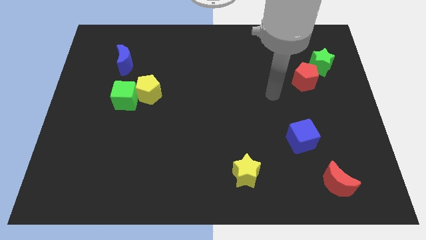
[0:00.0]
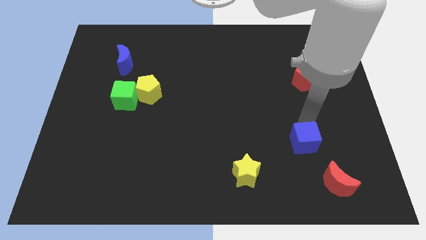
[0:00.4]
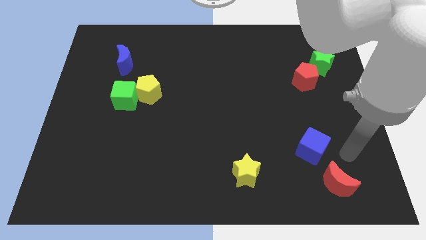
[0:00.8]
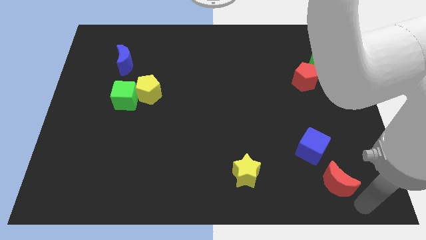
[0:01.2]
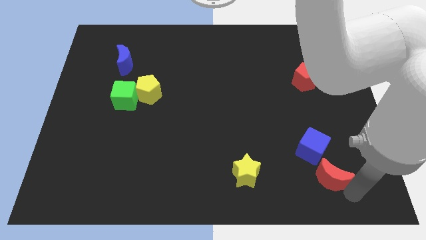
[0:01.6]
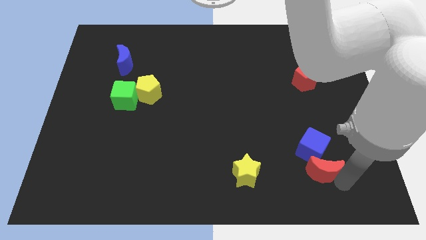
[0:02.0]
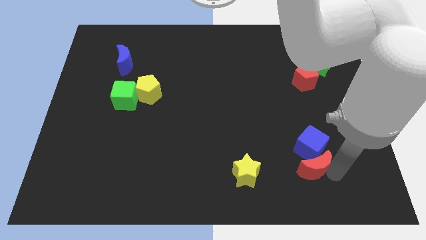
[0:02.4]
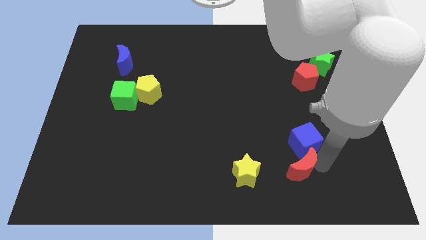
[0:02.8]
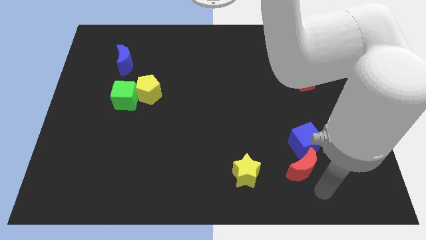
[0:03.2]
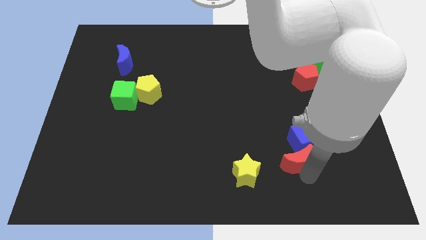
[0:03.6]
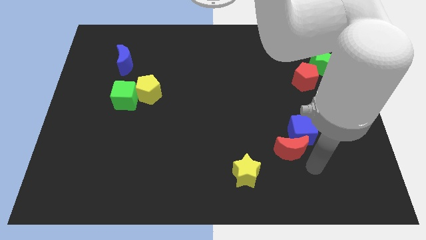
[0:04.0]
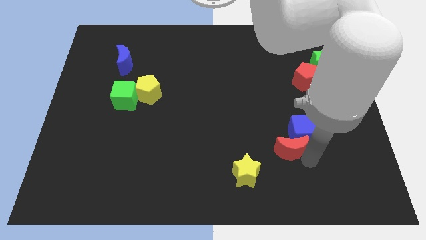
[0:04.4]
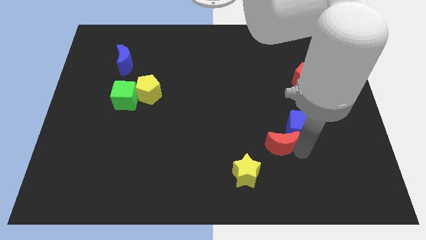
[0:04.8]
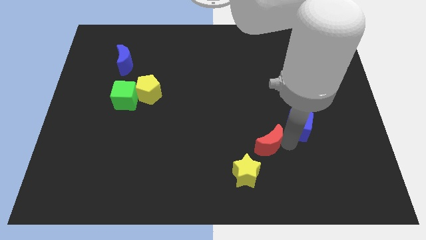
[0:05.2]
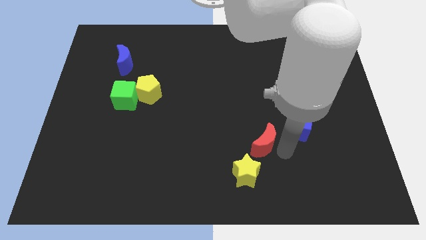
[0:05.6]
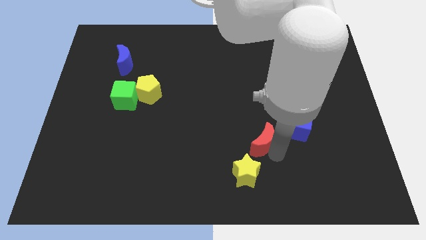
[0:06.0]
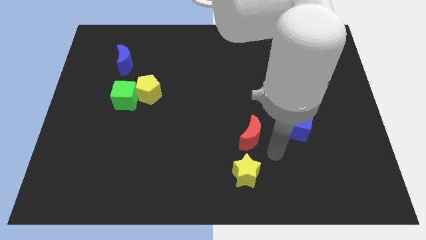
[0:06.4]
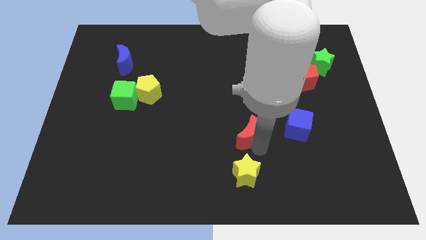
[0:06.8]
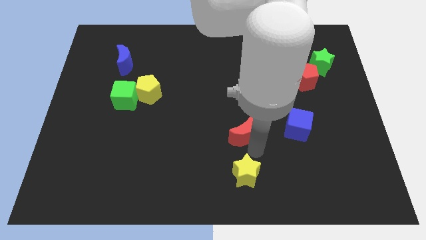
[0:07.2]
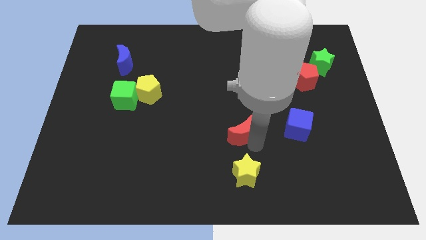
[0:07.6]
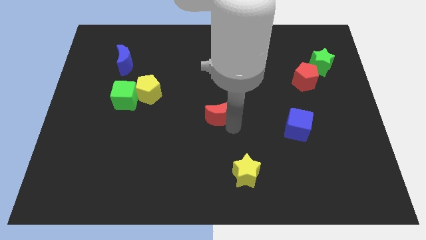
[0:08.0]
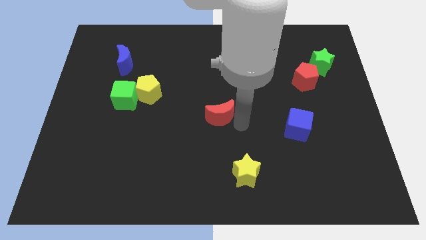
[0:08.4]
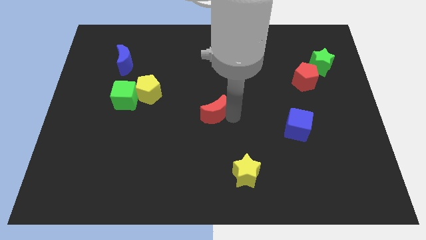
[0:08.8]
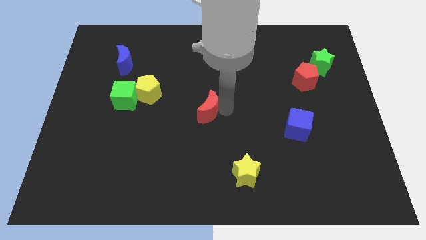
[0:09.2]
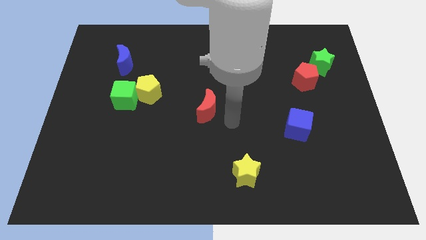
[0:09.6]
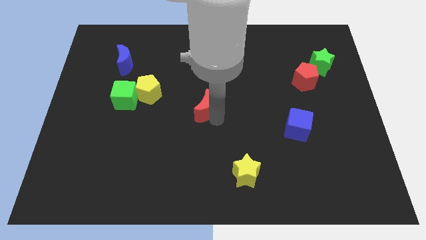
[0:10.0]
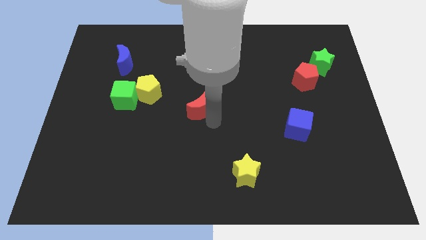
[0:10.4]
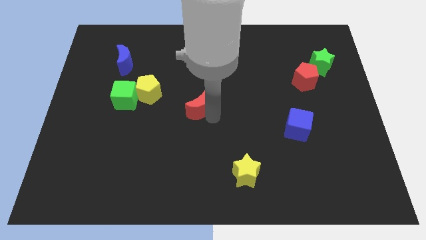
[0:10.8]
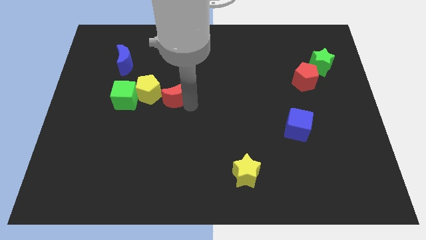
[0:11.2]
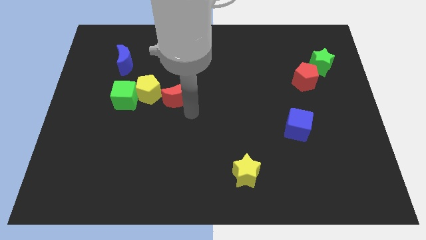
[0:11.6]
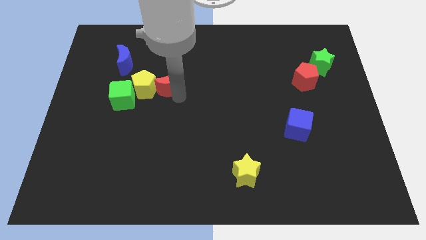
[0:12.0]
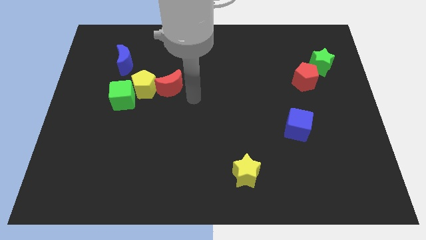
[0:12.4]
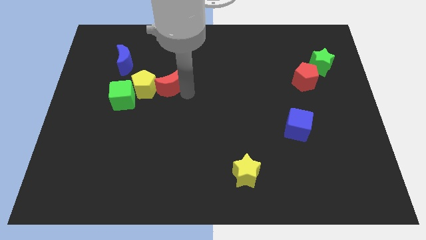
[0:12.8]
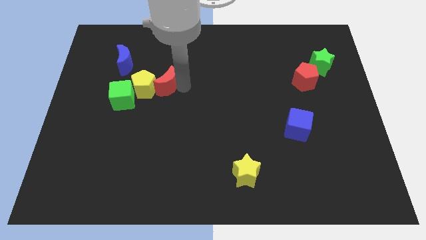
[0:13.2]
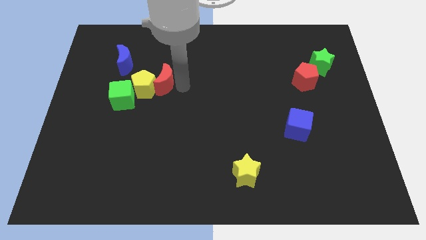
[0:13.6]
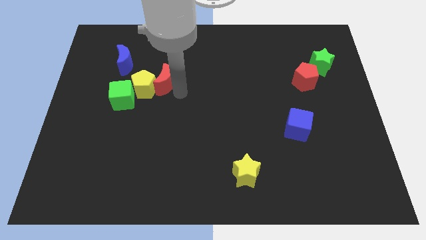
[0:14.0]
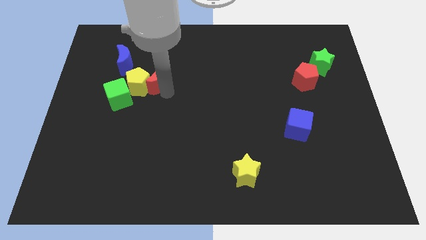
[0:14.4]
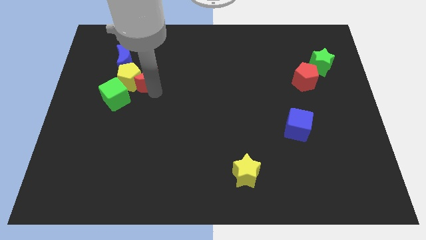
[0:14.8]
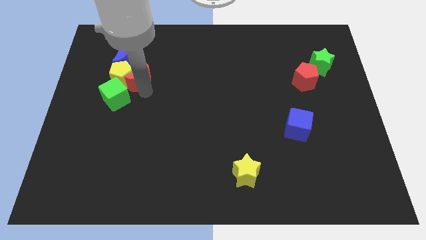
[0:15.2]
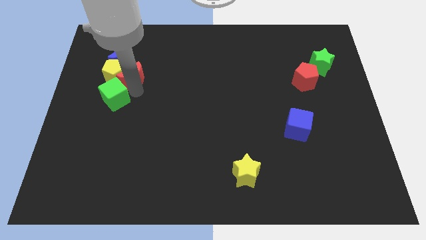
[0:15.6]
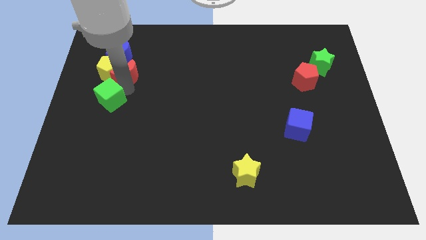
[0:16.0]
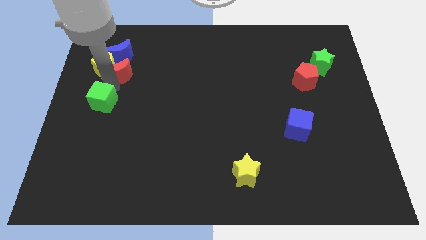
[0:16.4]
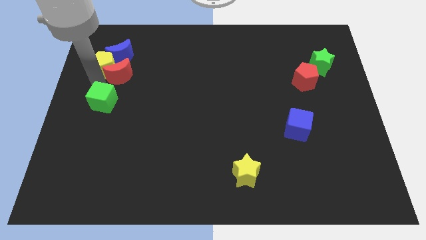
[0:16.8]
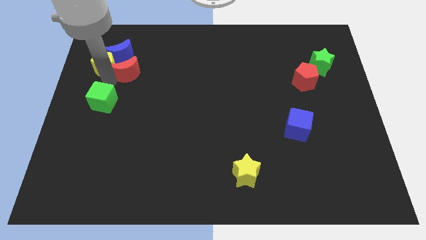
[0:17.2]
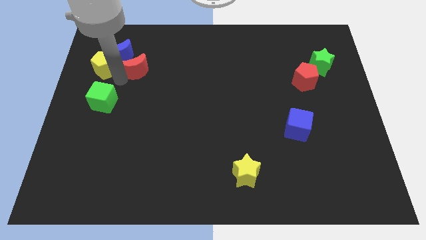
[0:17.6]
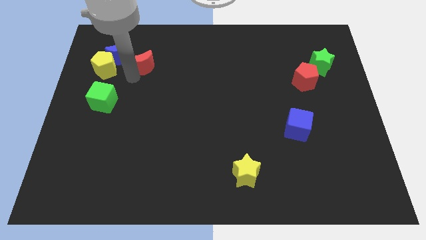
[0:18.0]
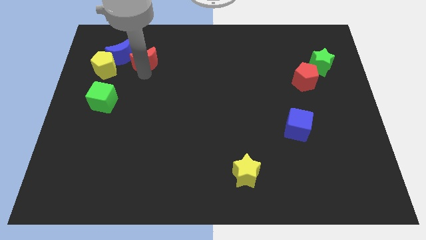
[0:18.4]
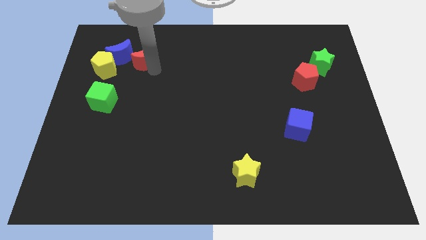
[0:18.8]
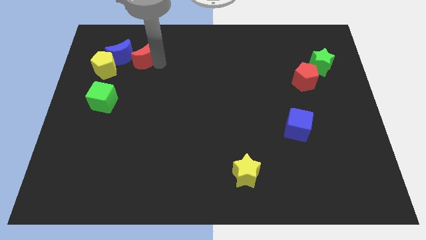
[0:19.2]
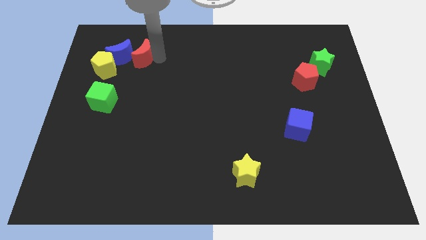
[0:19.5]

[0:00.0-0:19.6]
push the red moon towards the blue moon

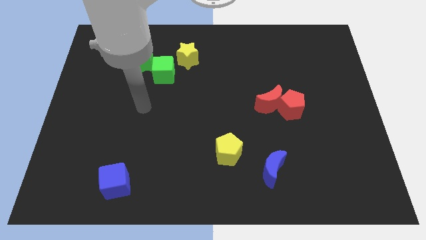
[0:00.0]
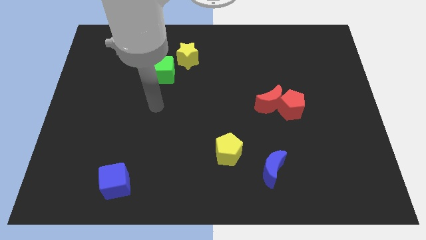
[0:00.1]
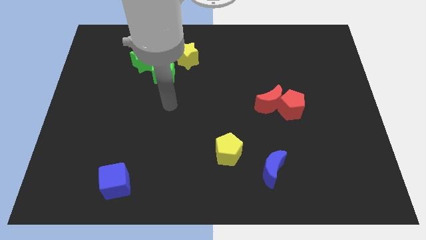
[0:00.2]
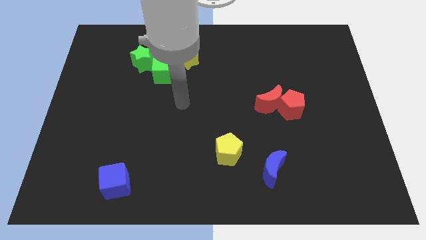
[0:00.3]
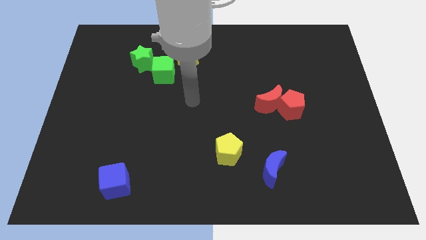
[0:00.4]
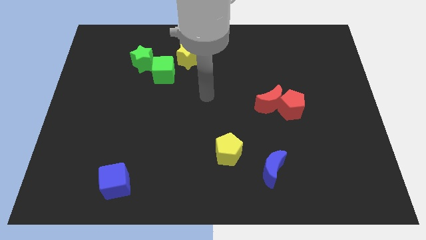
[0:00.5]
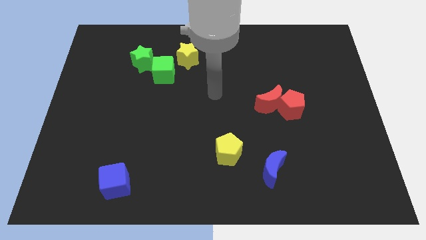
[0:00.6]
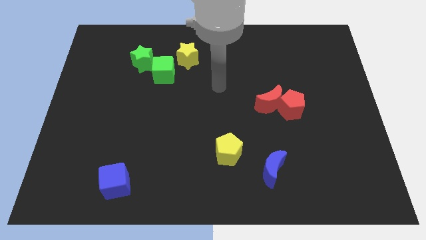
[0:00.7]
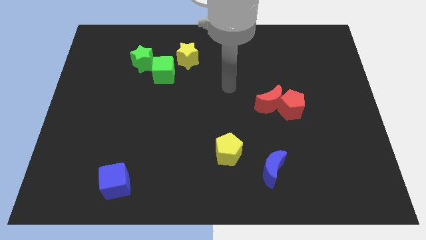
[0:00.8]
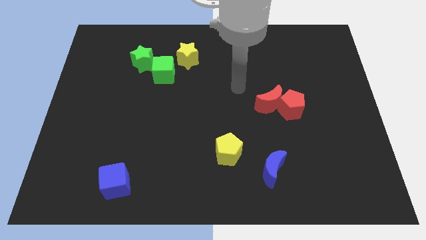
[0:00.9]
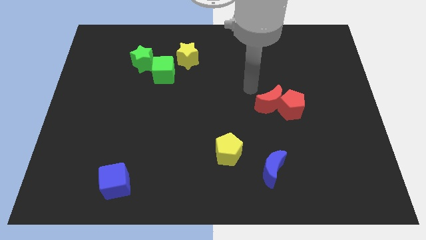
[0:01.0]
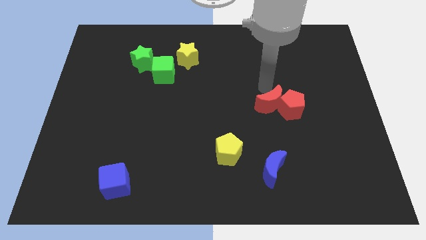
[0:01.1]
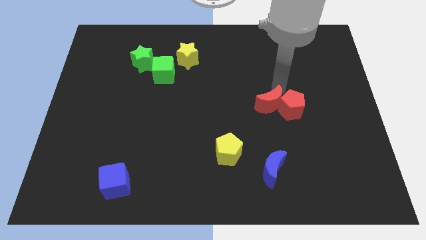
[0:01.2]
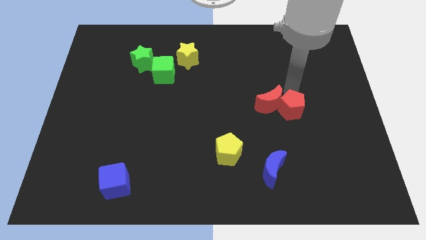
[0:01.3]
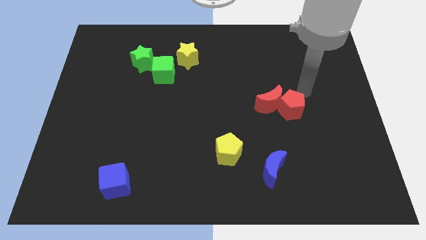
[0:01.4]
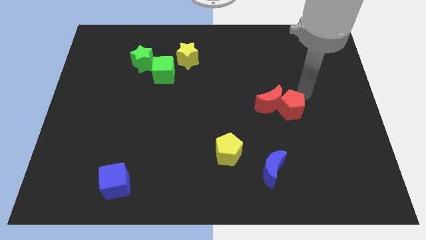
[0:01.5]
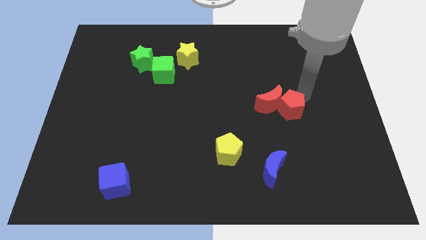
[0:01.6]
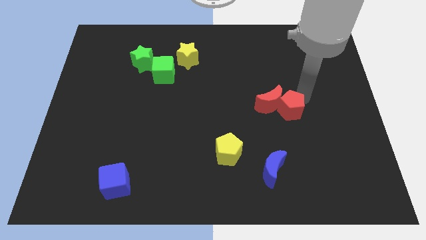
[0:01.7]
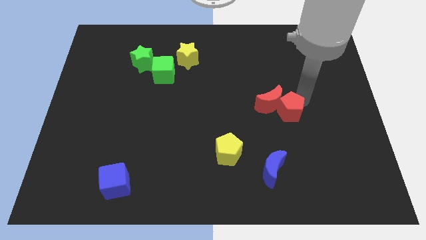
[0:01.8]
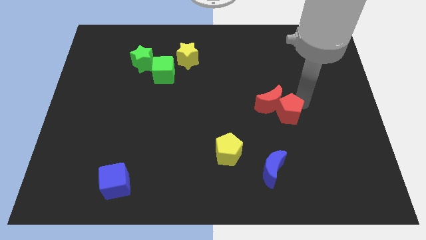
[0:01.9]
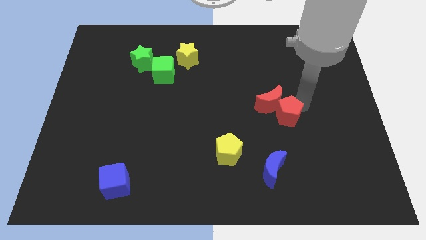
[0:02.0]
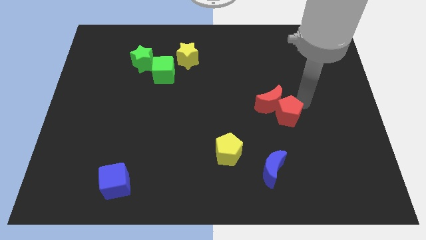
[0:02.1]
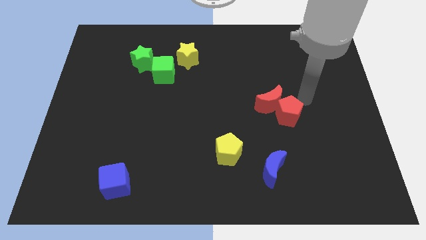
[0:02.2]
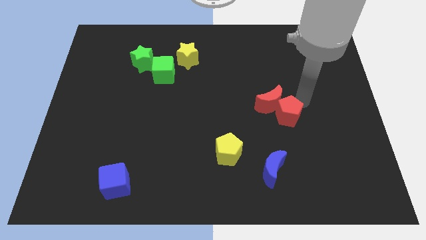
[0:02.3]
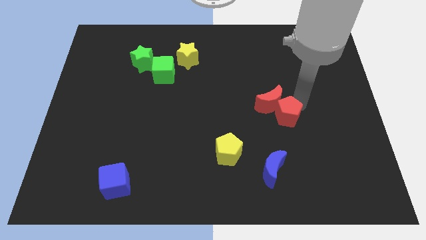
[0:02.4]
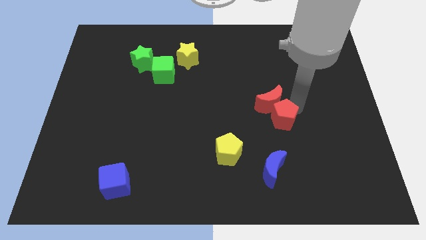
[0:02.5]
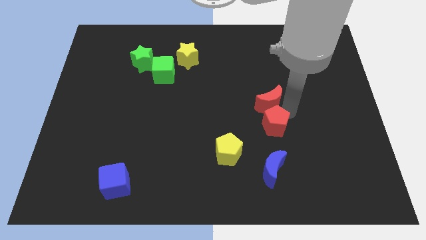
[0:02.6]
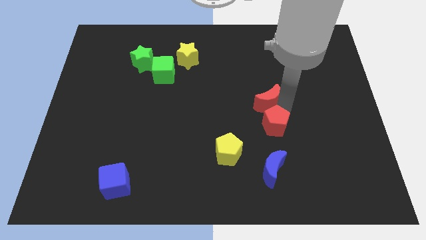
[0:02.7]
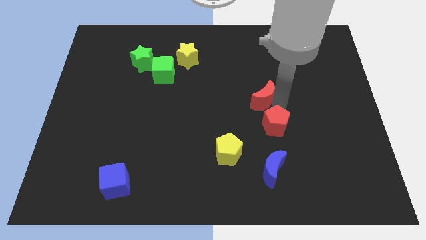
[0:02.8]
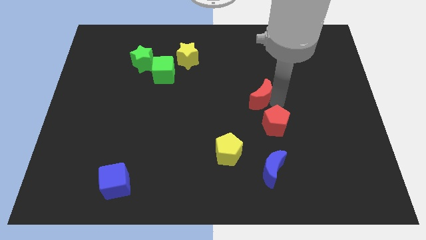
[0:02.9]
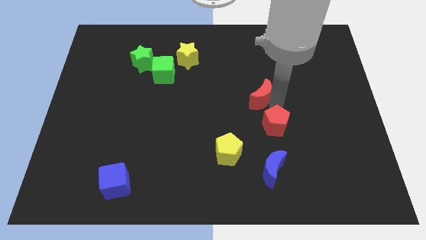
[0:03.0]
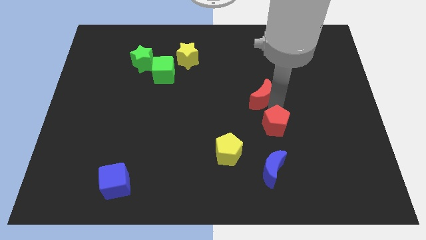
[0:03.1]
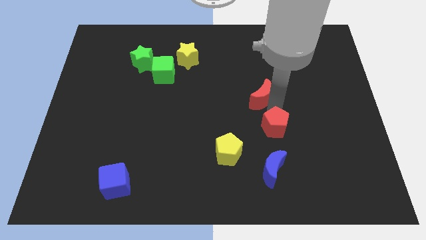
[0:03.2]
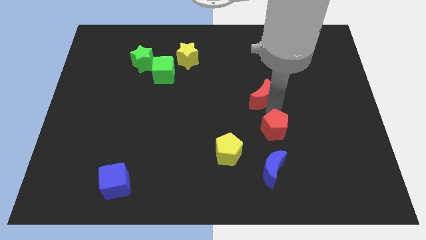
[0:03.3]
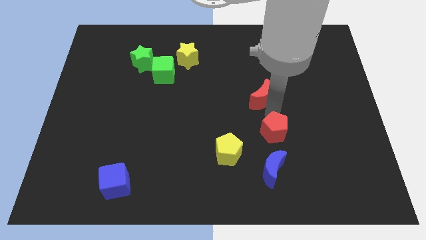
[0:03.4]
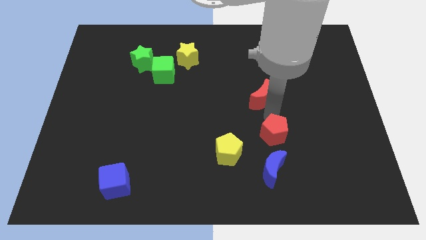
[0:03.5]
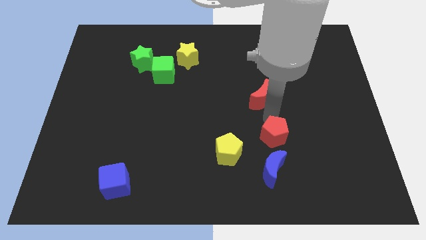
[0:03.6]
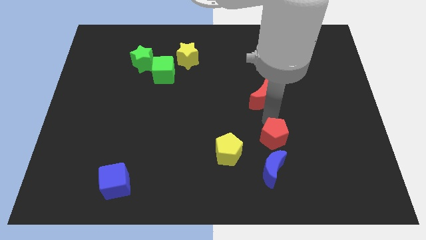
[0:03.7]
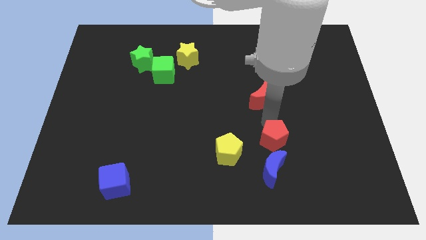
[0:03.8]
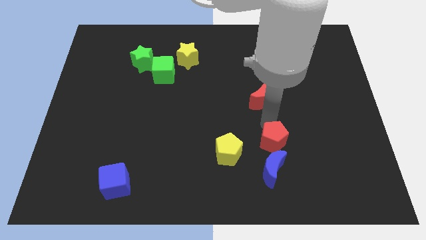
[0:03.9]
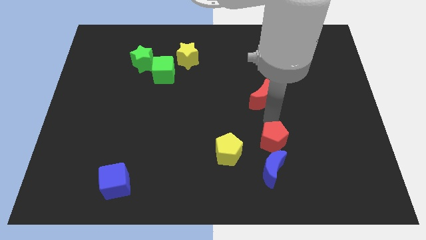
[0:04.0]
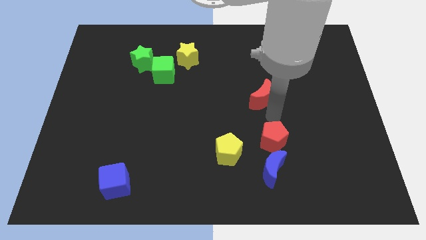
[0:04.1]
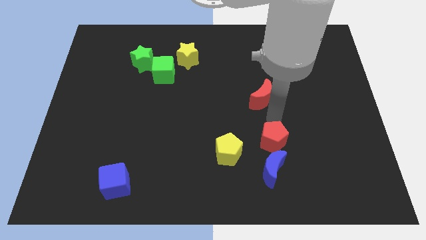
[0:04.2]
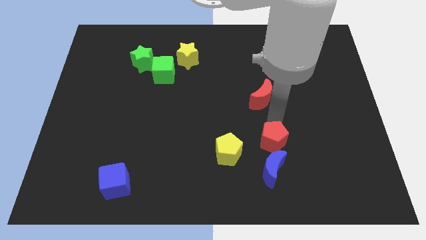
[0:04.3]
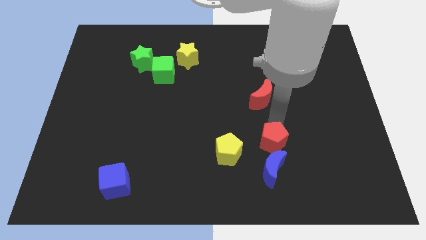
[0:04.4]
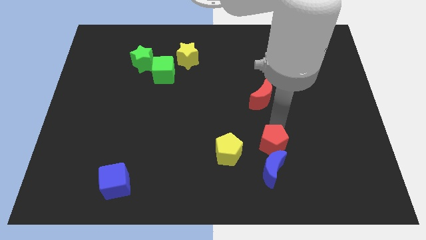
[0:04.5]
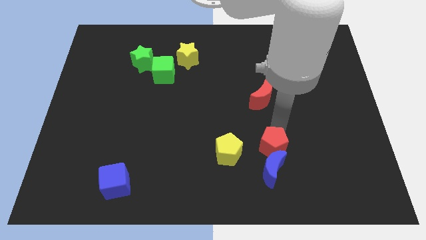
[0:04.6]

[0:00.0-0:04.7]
slide the red pentagon close to the blue moon
